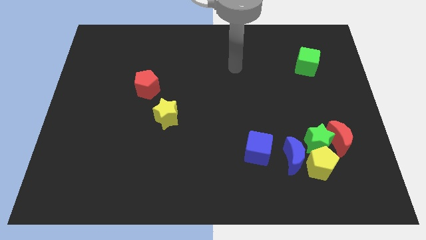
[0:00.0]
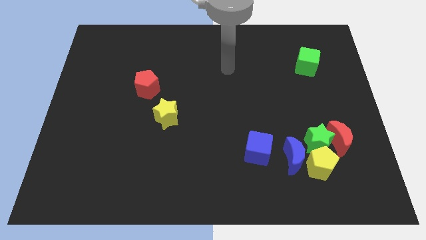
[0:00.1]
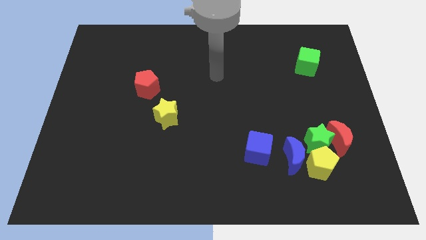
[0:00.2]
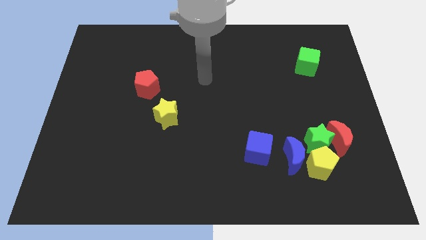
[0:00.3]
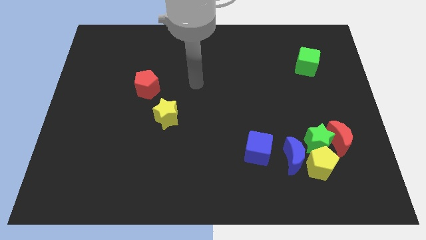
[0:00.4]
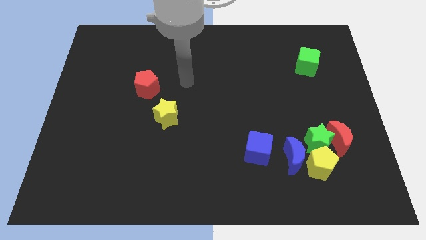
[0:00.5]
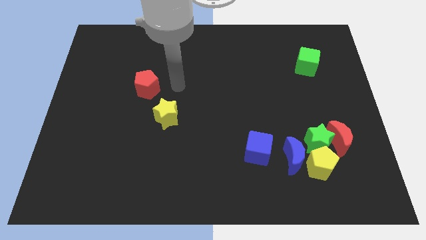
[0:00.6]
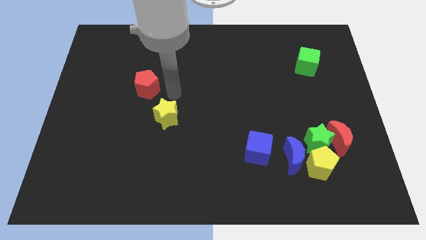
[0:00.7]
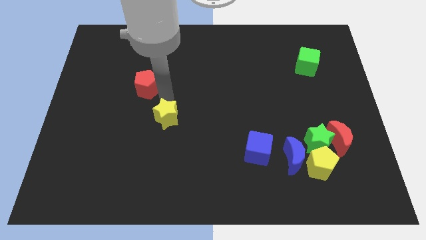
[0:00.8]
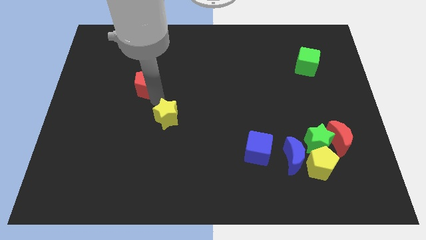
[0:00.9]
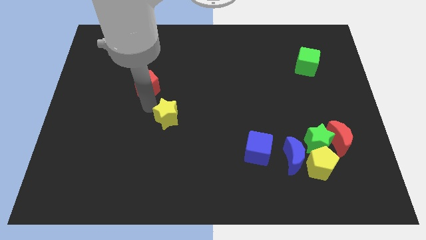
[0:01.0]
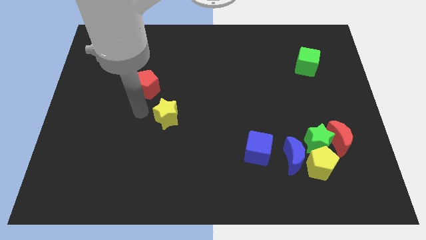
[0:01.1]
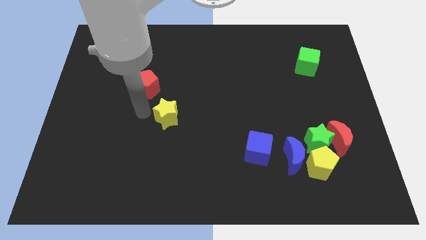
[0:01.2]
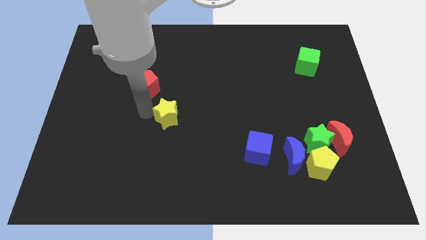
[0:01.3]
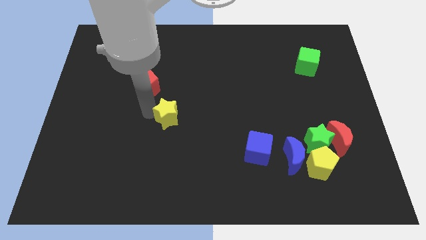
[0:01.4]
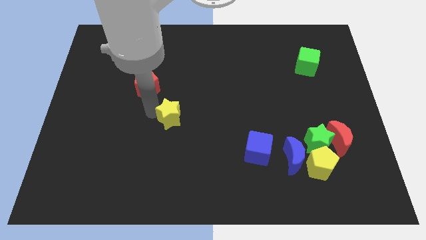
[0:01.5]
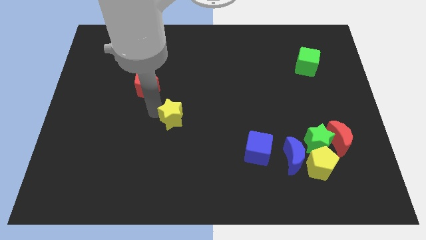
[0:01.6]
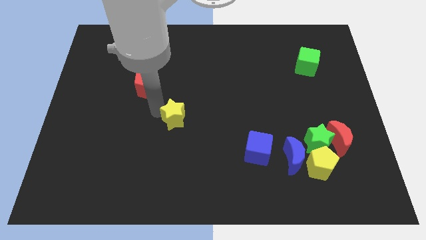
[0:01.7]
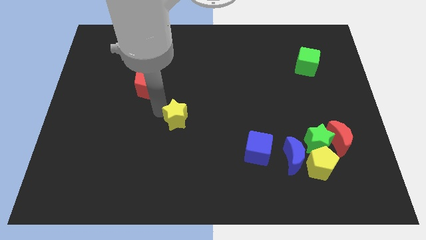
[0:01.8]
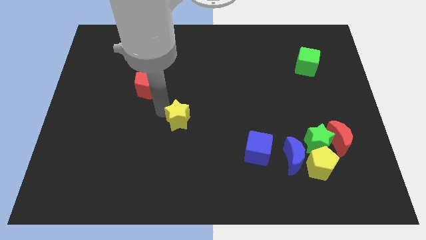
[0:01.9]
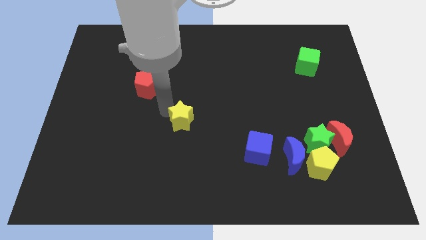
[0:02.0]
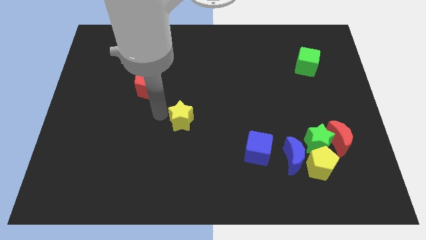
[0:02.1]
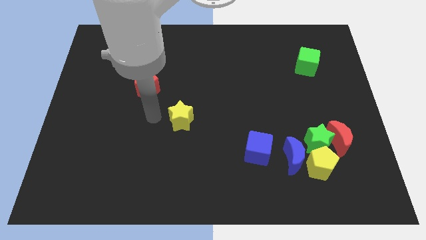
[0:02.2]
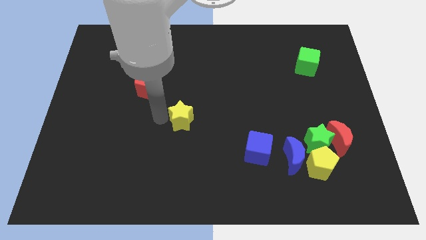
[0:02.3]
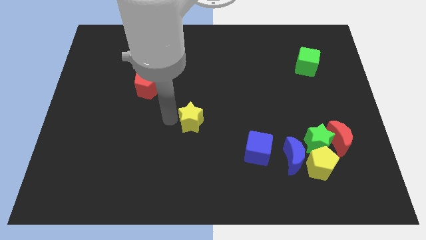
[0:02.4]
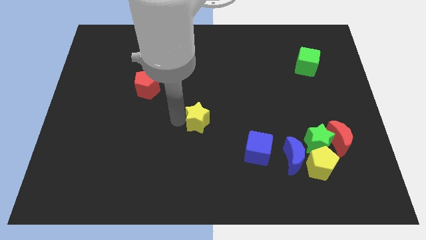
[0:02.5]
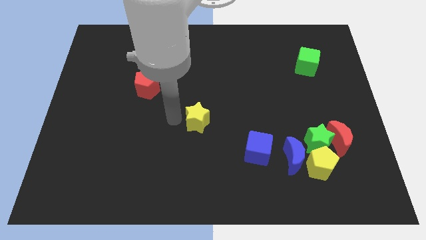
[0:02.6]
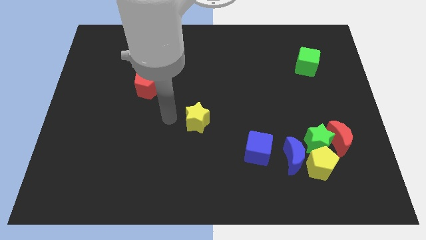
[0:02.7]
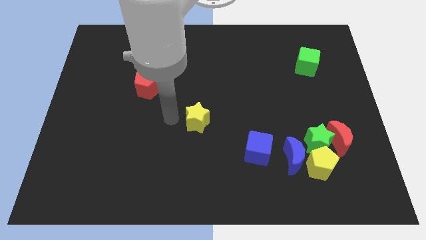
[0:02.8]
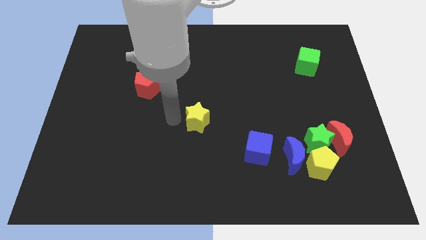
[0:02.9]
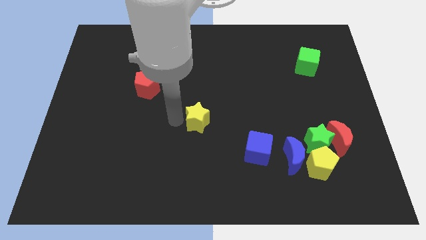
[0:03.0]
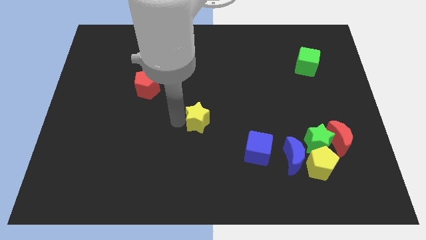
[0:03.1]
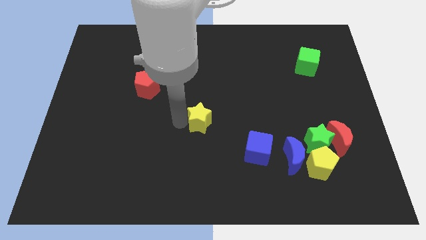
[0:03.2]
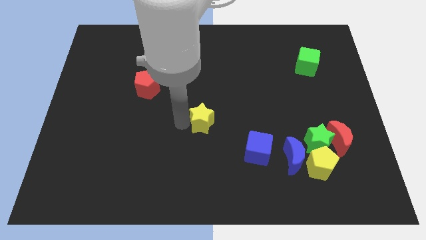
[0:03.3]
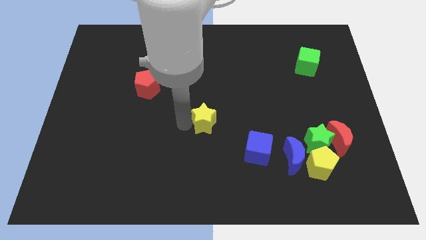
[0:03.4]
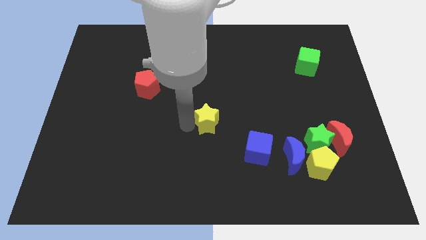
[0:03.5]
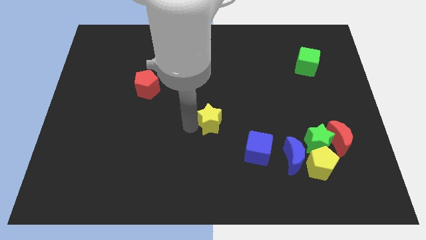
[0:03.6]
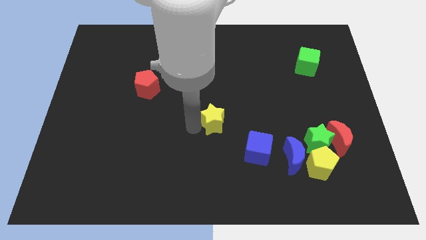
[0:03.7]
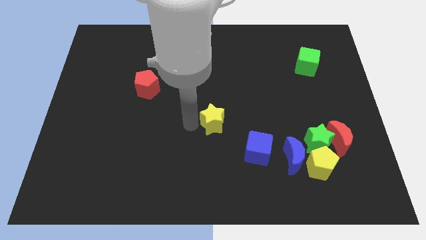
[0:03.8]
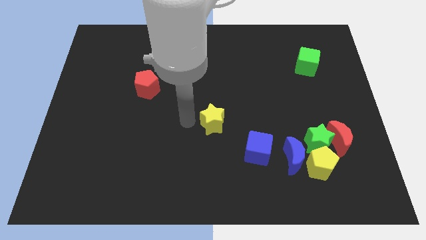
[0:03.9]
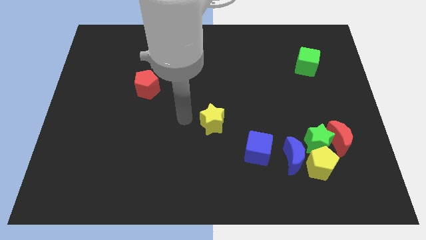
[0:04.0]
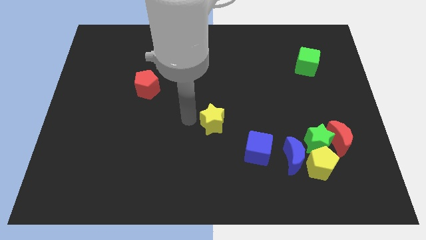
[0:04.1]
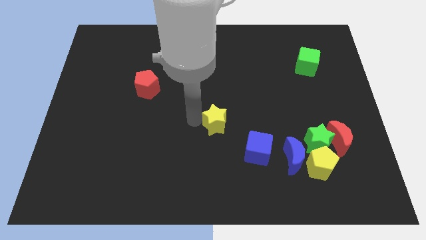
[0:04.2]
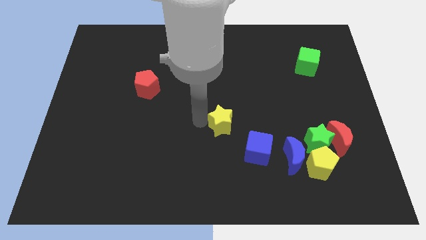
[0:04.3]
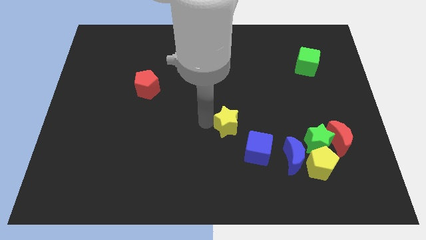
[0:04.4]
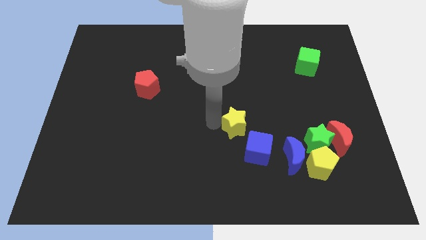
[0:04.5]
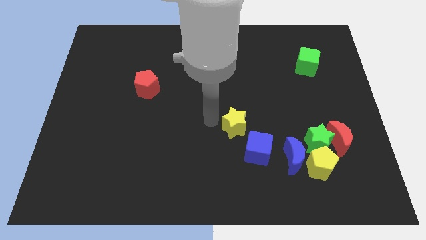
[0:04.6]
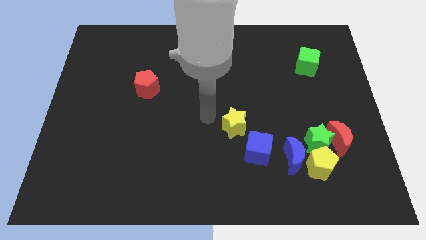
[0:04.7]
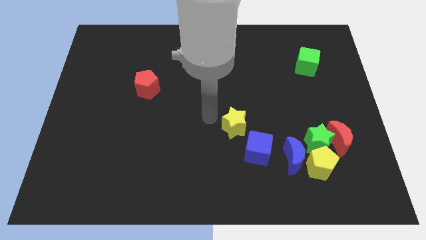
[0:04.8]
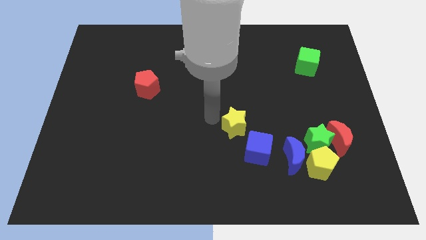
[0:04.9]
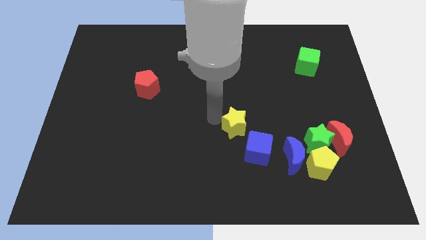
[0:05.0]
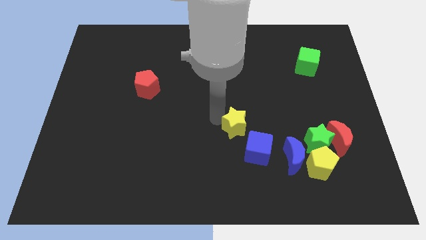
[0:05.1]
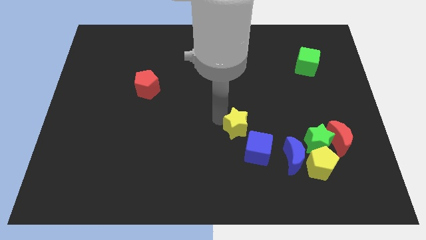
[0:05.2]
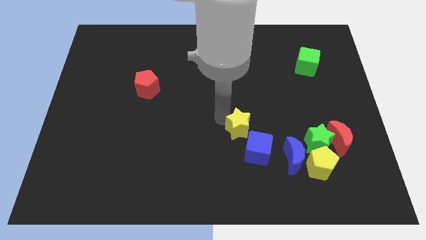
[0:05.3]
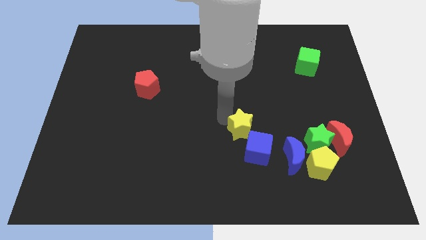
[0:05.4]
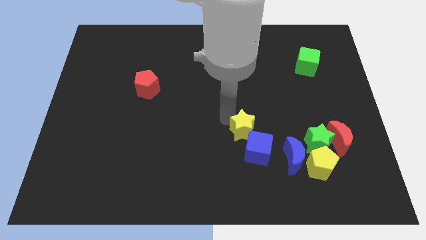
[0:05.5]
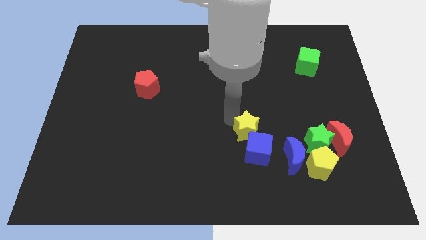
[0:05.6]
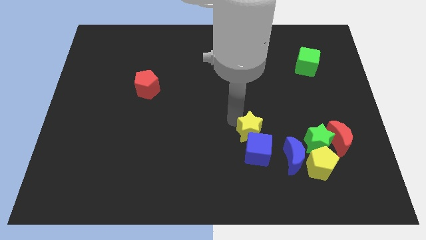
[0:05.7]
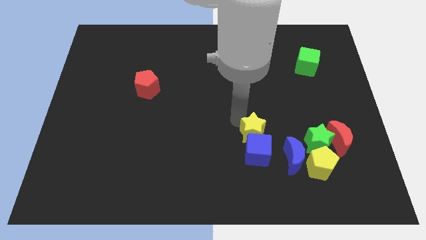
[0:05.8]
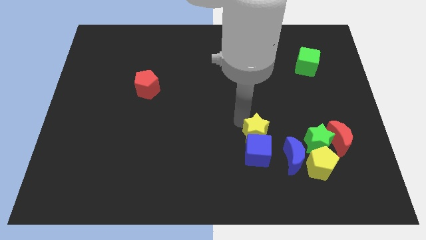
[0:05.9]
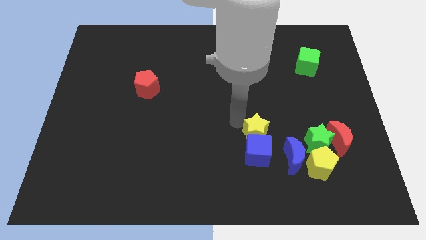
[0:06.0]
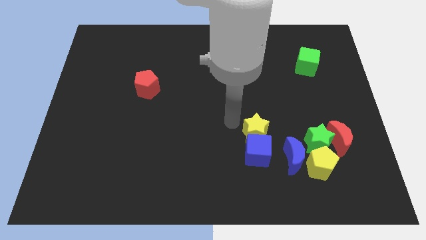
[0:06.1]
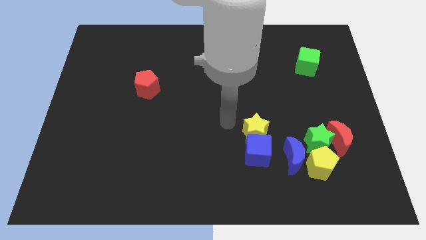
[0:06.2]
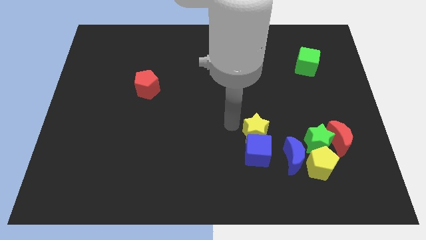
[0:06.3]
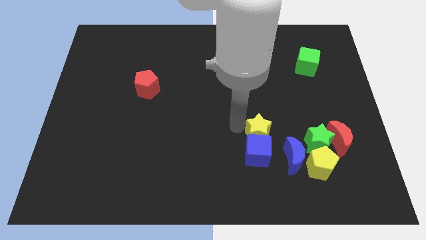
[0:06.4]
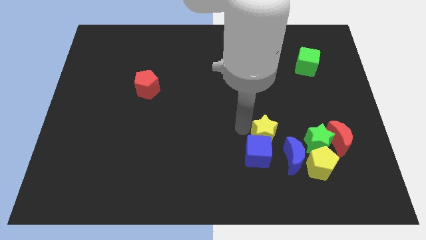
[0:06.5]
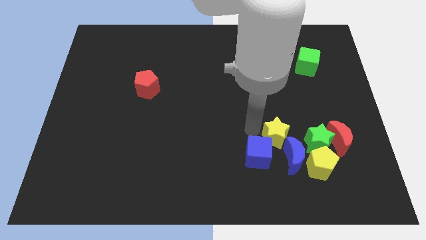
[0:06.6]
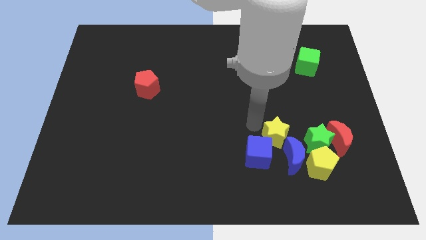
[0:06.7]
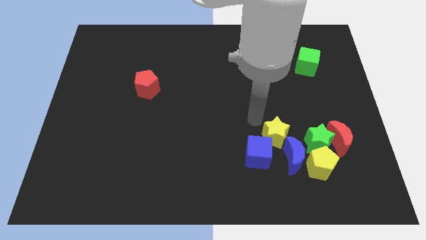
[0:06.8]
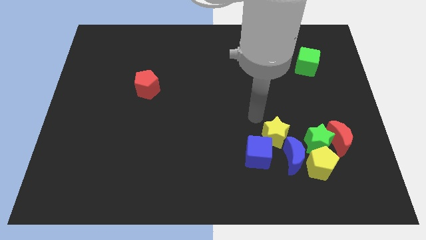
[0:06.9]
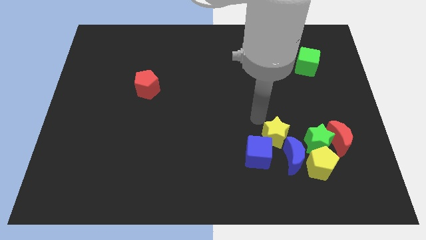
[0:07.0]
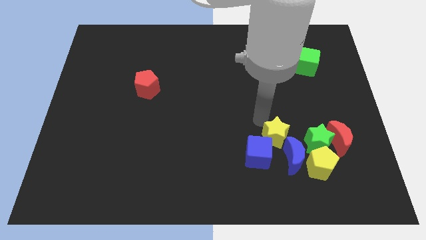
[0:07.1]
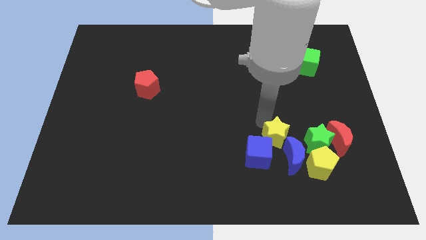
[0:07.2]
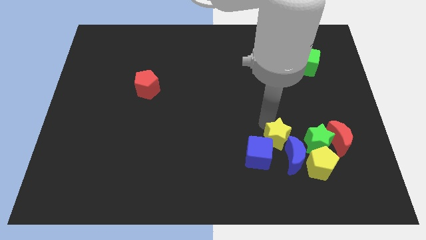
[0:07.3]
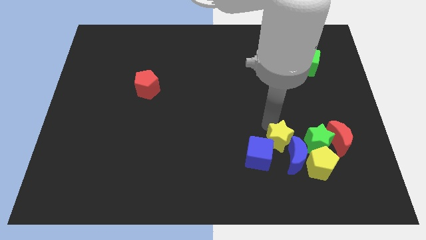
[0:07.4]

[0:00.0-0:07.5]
put the yellow star close to the blue moon

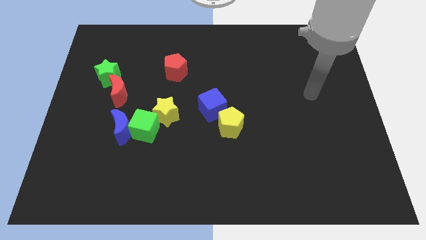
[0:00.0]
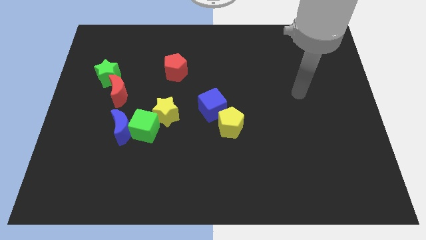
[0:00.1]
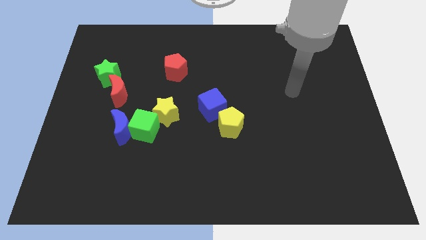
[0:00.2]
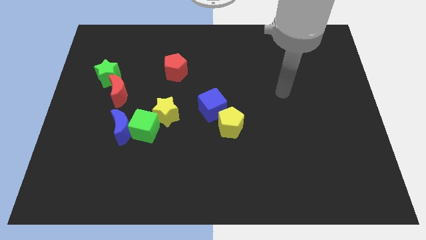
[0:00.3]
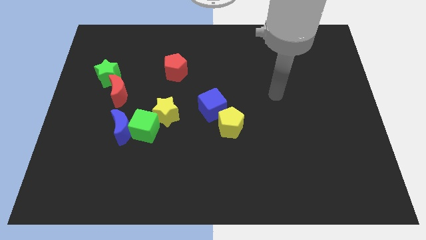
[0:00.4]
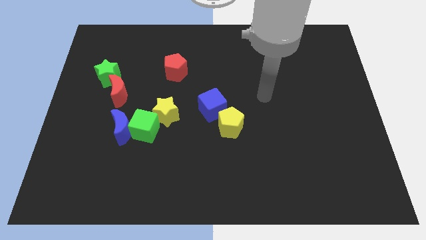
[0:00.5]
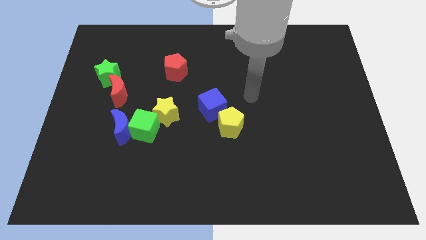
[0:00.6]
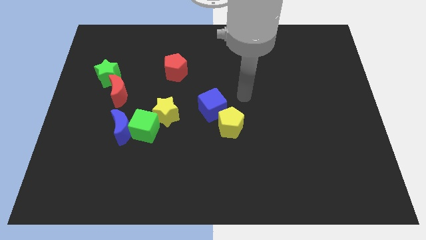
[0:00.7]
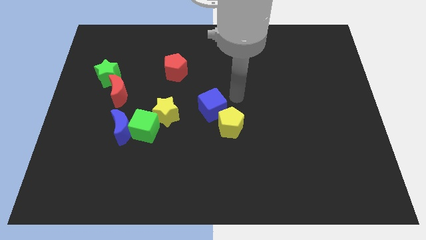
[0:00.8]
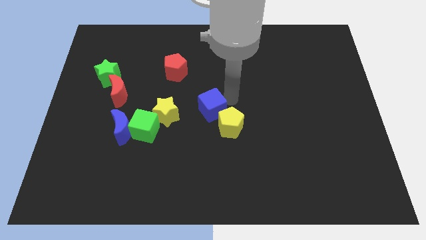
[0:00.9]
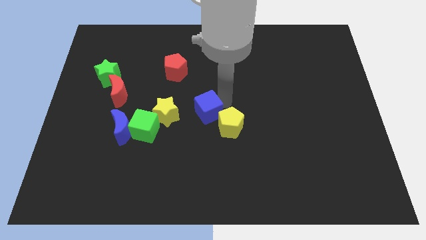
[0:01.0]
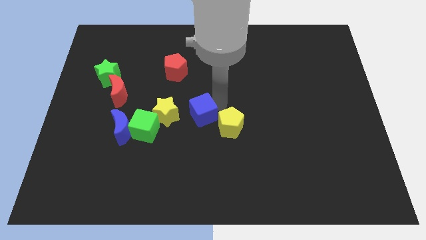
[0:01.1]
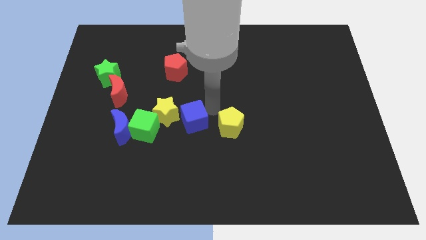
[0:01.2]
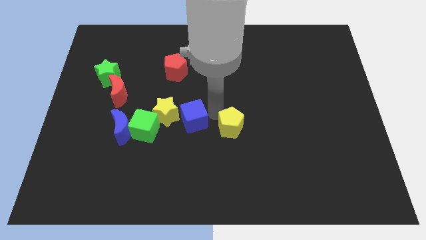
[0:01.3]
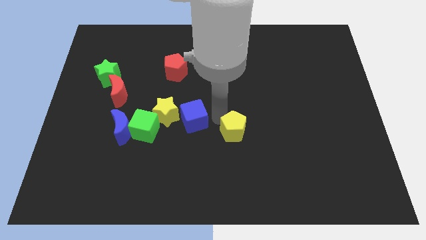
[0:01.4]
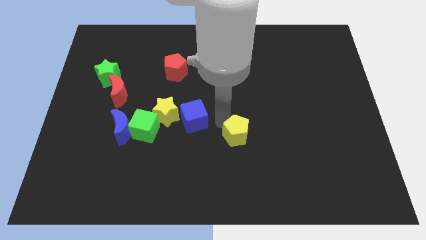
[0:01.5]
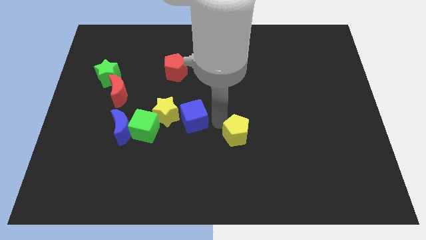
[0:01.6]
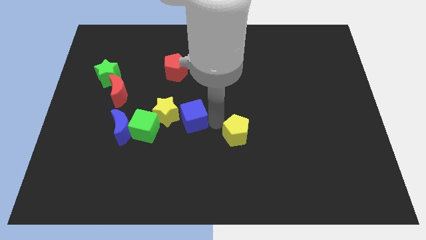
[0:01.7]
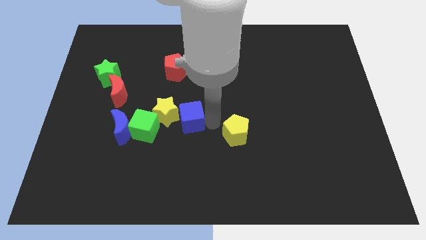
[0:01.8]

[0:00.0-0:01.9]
move the blue cube to the yellow star
